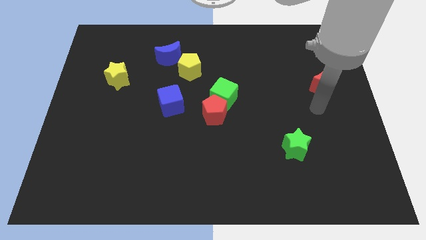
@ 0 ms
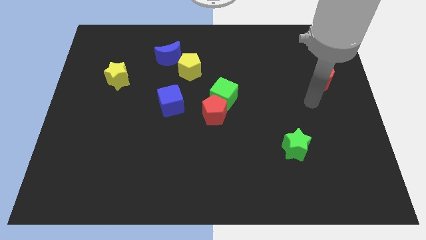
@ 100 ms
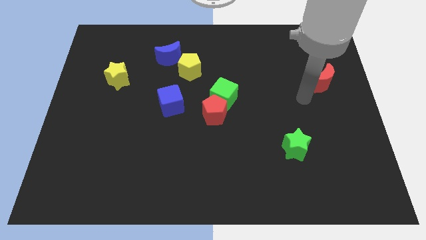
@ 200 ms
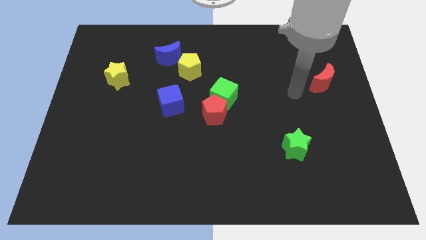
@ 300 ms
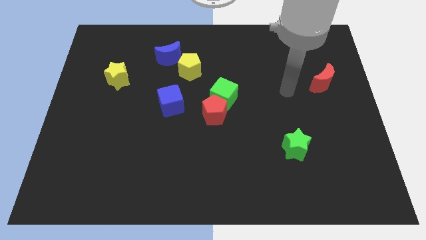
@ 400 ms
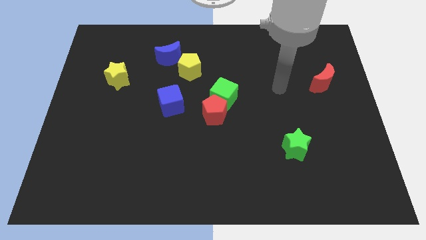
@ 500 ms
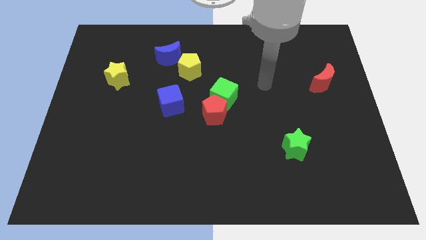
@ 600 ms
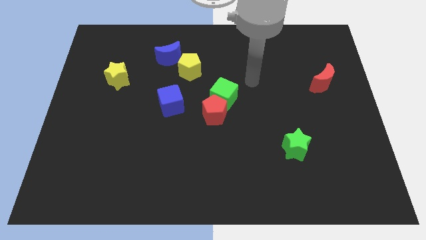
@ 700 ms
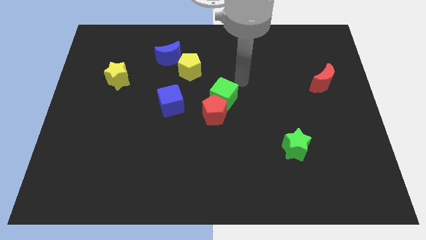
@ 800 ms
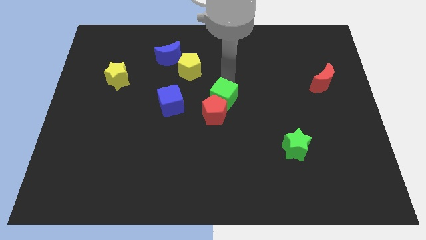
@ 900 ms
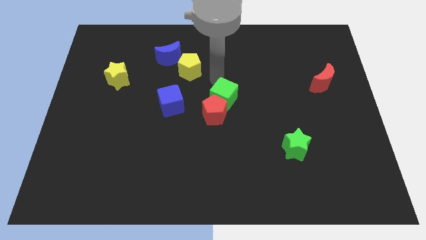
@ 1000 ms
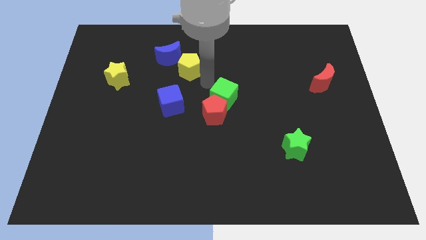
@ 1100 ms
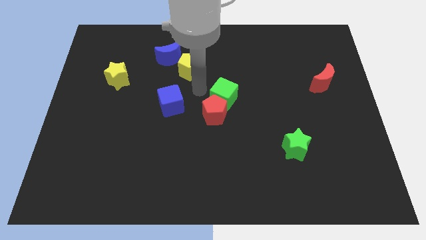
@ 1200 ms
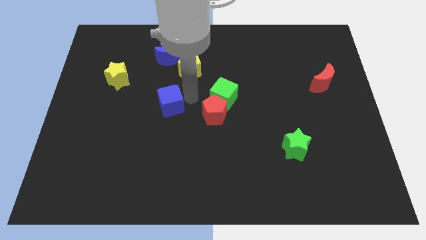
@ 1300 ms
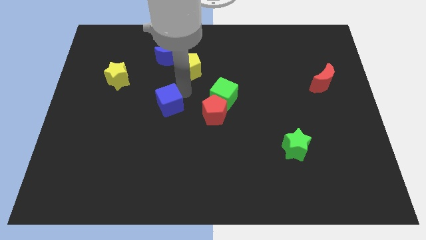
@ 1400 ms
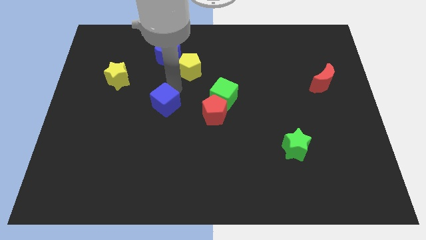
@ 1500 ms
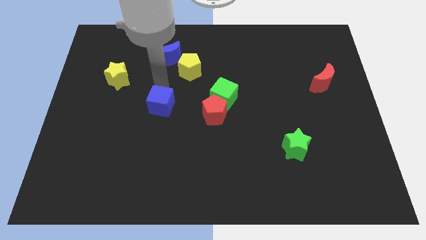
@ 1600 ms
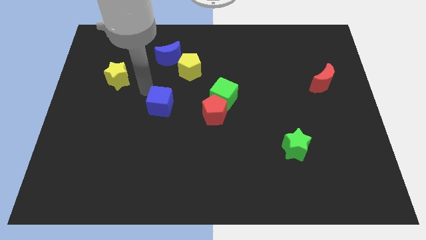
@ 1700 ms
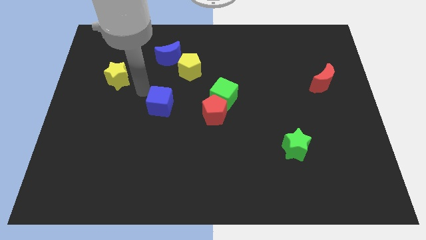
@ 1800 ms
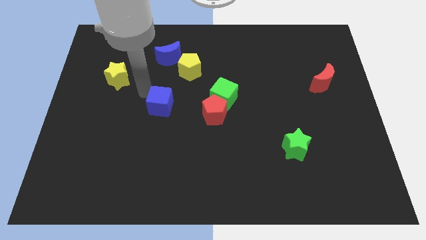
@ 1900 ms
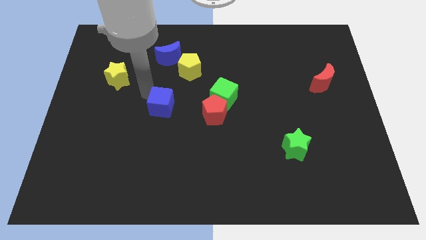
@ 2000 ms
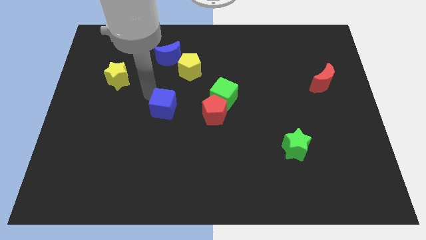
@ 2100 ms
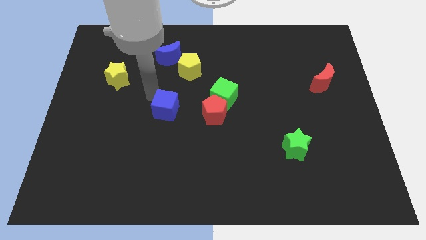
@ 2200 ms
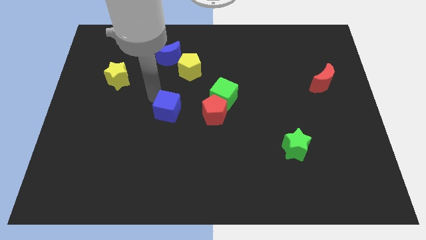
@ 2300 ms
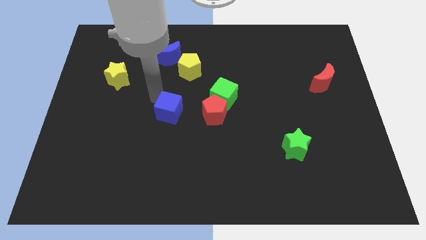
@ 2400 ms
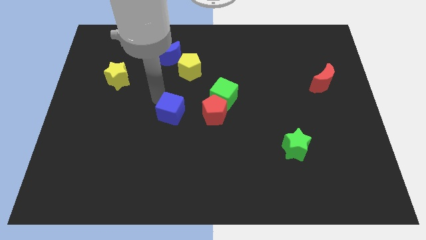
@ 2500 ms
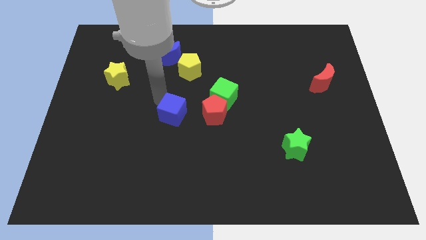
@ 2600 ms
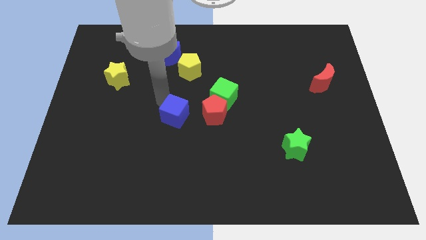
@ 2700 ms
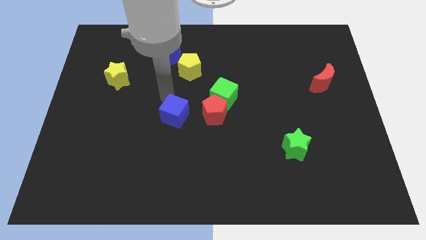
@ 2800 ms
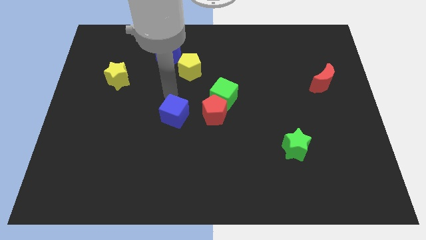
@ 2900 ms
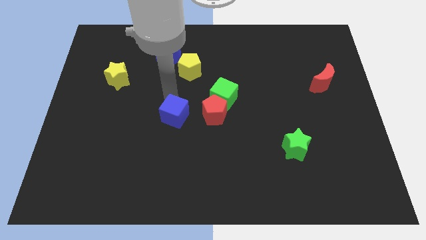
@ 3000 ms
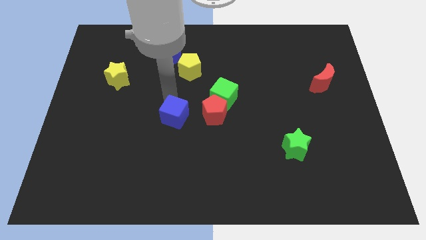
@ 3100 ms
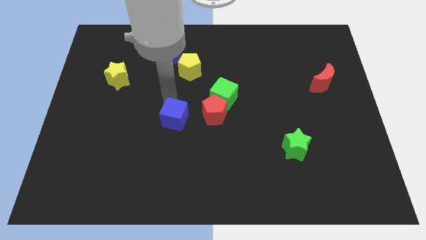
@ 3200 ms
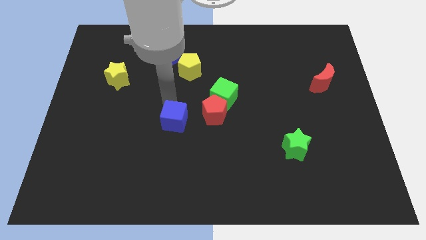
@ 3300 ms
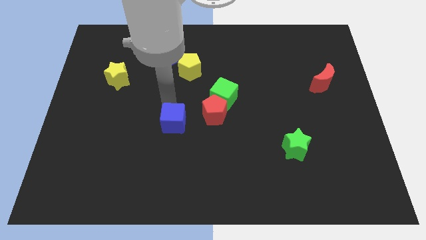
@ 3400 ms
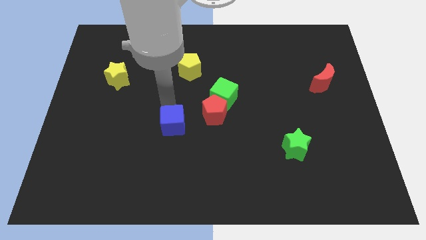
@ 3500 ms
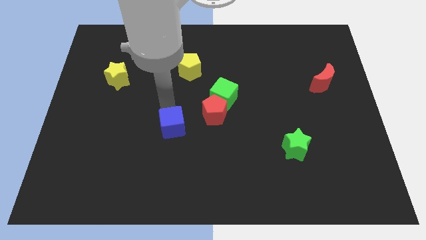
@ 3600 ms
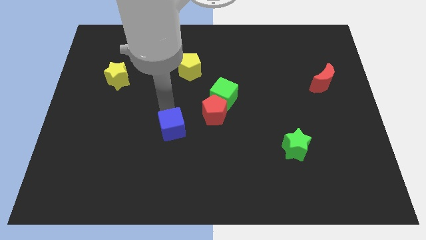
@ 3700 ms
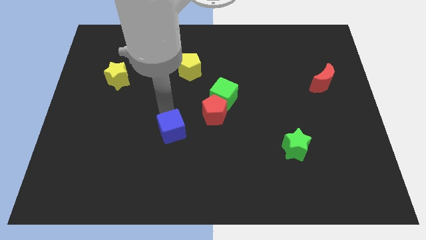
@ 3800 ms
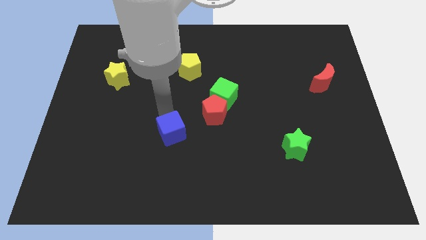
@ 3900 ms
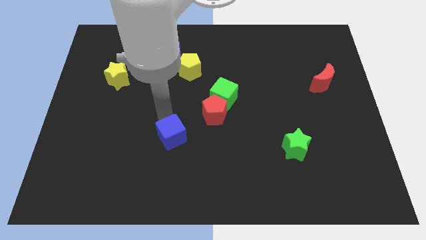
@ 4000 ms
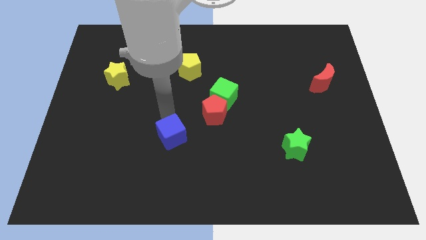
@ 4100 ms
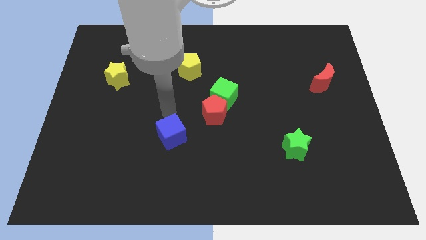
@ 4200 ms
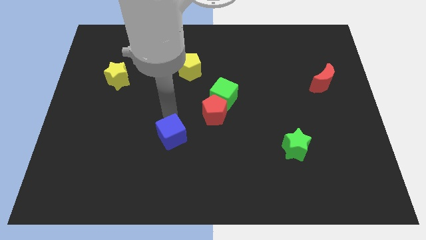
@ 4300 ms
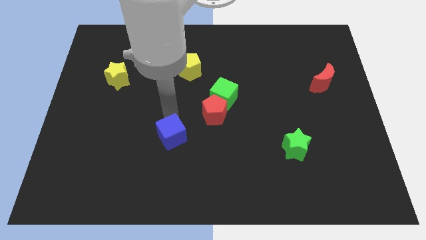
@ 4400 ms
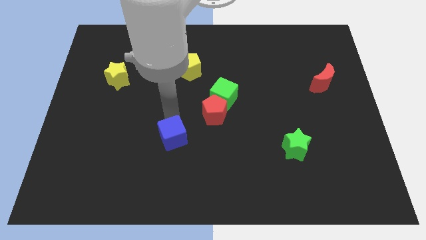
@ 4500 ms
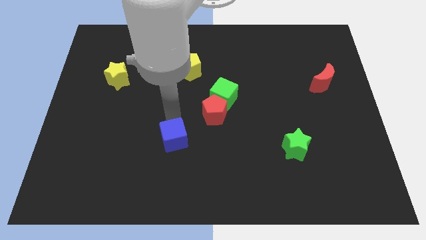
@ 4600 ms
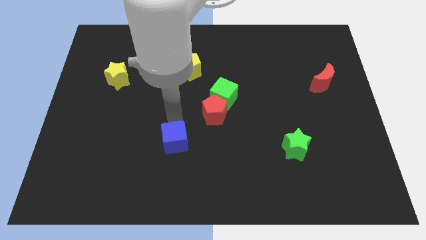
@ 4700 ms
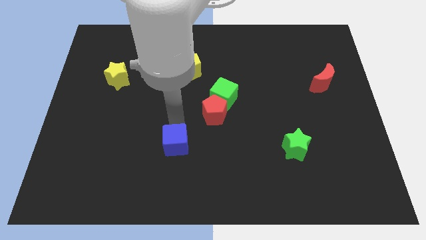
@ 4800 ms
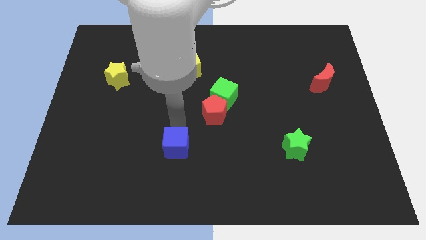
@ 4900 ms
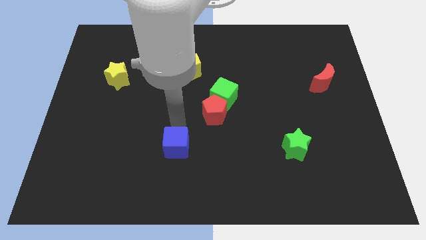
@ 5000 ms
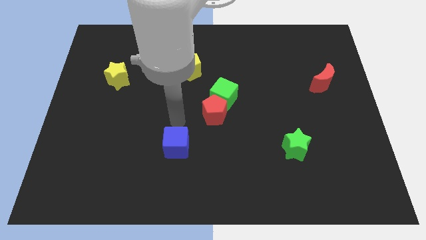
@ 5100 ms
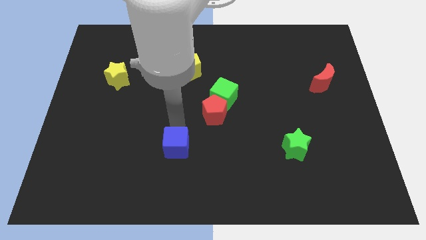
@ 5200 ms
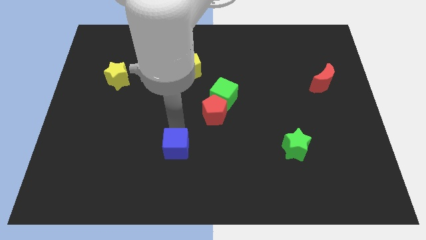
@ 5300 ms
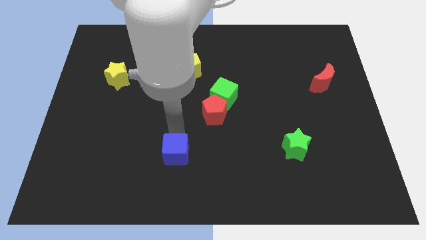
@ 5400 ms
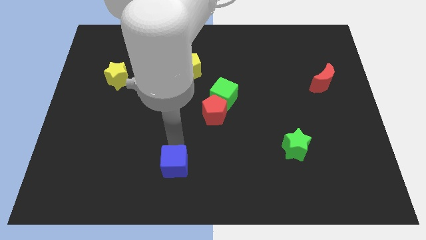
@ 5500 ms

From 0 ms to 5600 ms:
push the blue cube to the bottom side

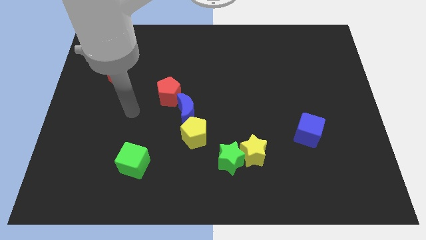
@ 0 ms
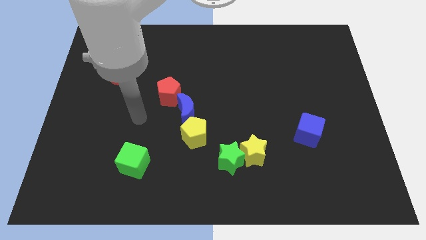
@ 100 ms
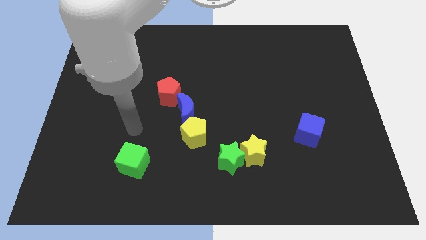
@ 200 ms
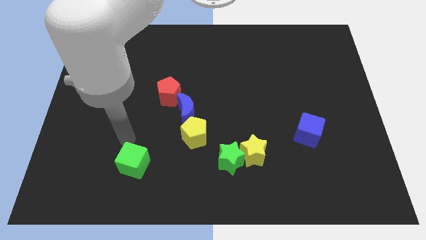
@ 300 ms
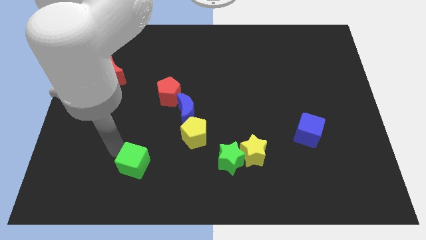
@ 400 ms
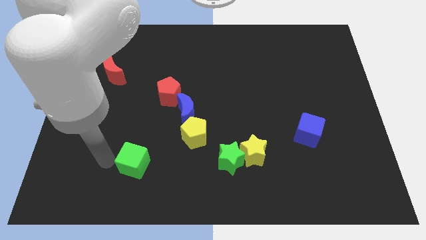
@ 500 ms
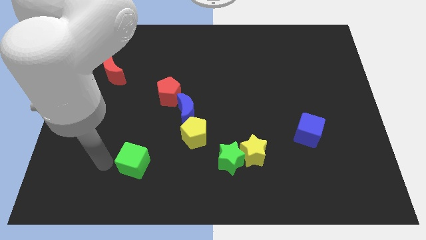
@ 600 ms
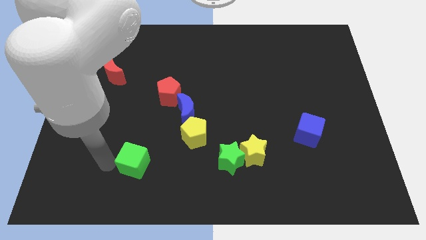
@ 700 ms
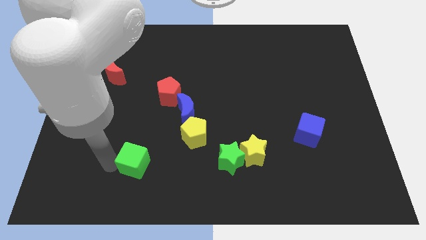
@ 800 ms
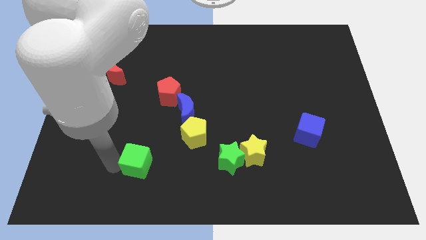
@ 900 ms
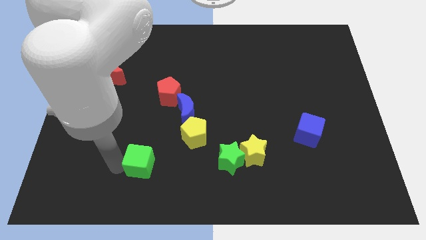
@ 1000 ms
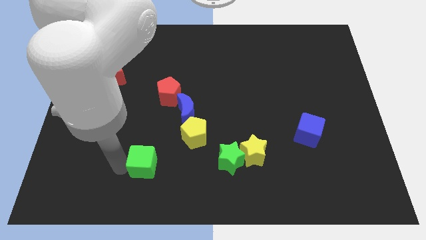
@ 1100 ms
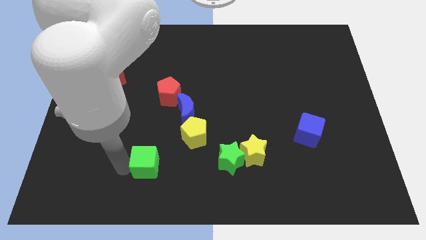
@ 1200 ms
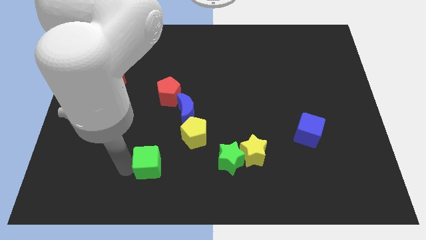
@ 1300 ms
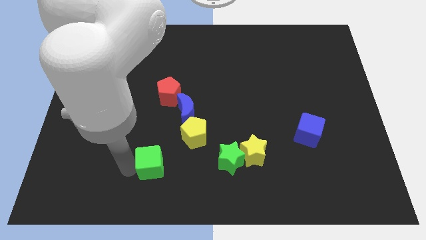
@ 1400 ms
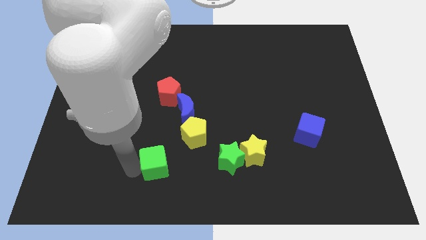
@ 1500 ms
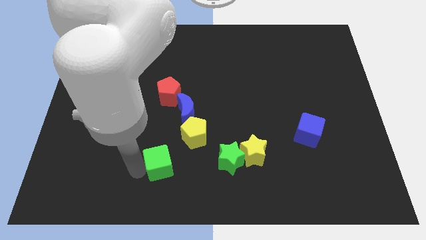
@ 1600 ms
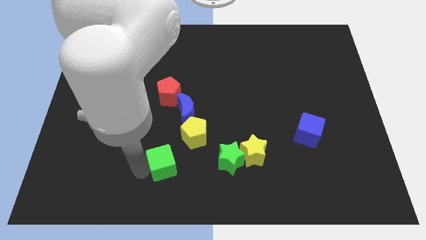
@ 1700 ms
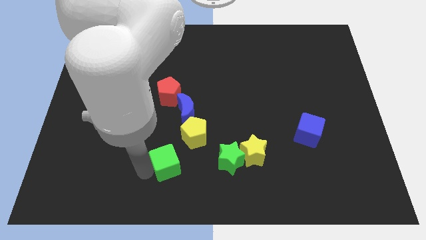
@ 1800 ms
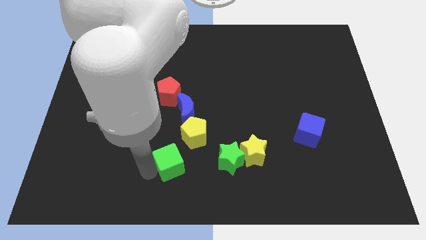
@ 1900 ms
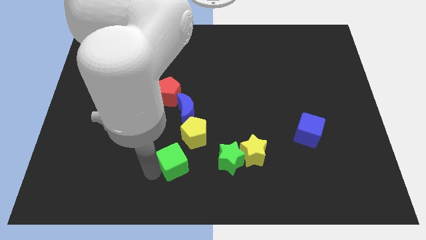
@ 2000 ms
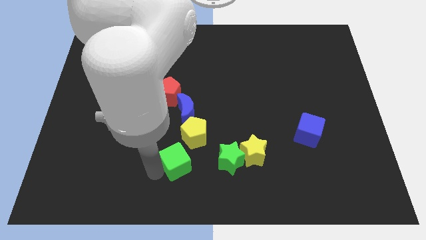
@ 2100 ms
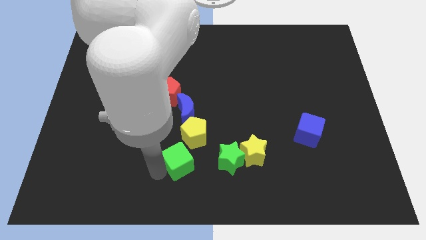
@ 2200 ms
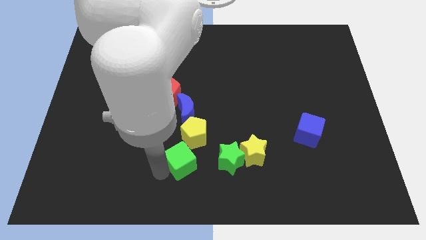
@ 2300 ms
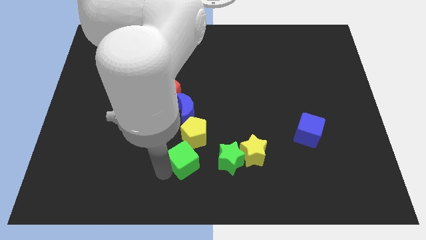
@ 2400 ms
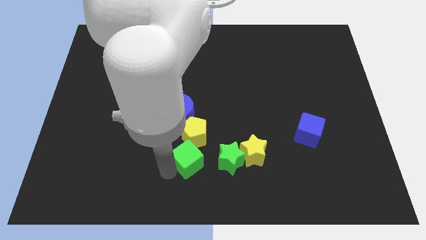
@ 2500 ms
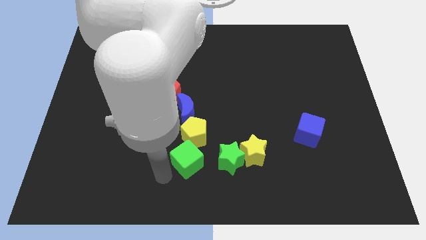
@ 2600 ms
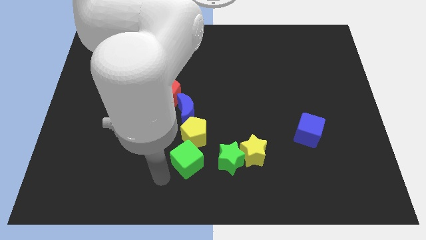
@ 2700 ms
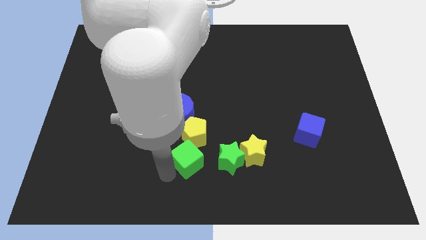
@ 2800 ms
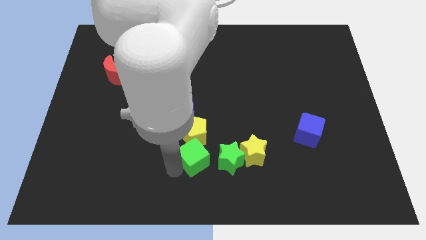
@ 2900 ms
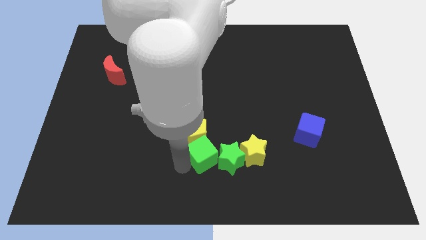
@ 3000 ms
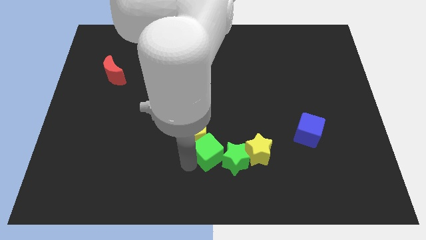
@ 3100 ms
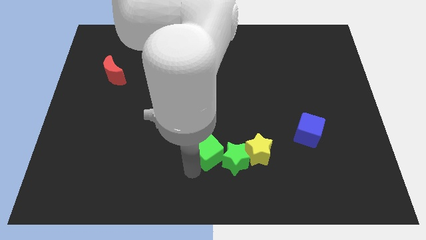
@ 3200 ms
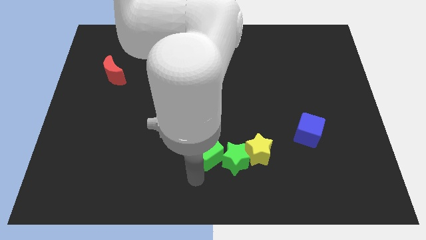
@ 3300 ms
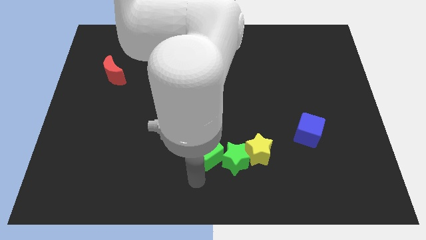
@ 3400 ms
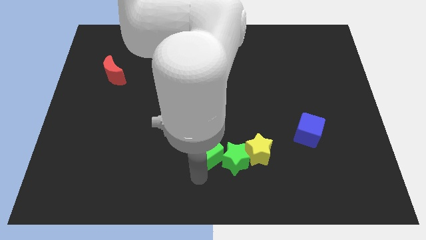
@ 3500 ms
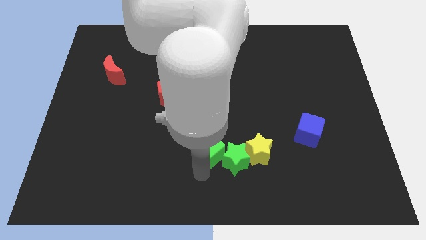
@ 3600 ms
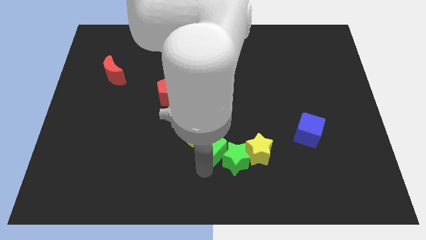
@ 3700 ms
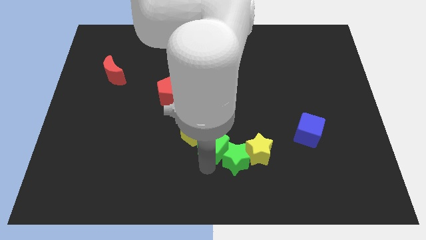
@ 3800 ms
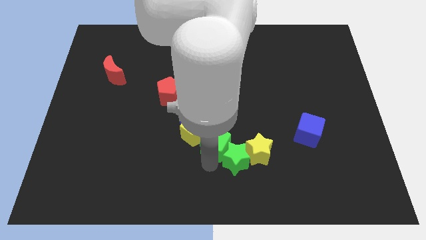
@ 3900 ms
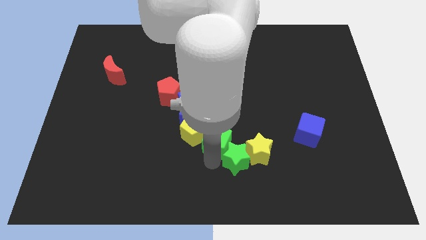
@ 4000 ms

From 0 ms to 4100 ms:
slide the green cube to the middle
